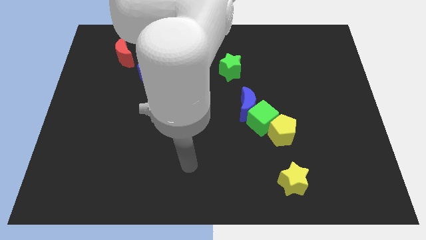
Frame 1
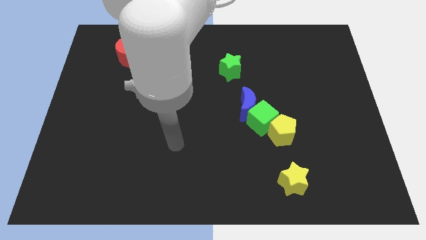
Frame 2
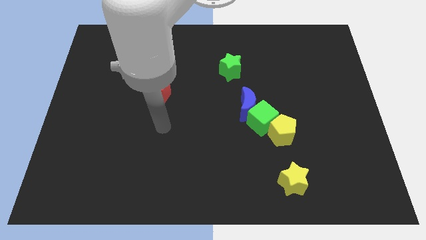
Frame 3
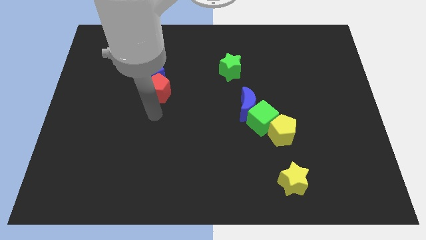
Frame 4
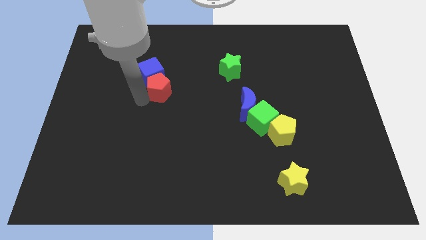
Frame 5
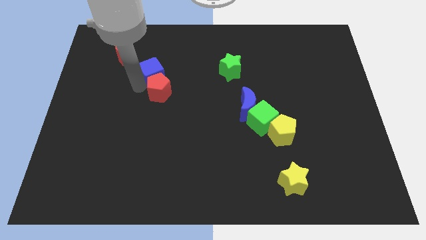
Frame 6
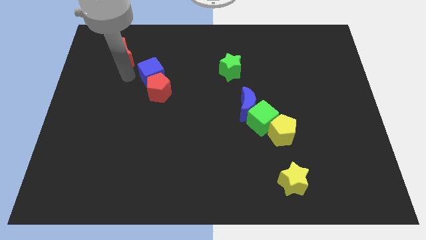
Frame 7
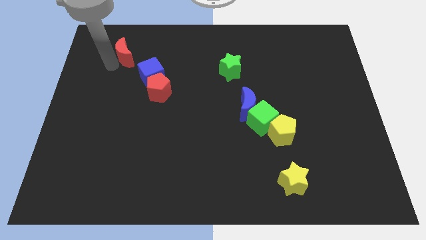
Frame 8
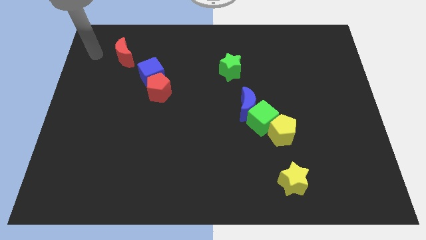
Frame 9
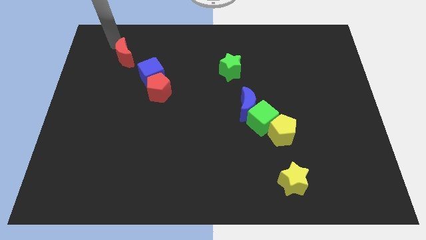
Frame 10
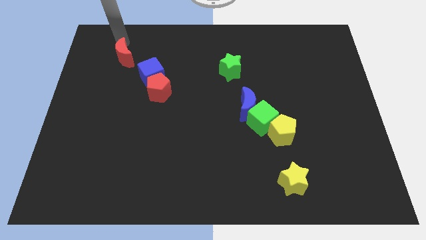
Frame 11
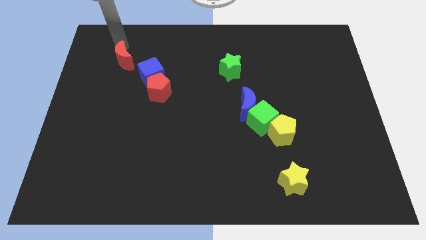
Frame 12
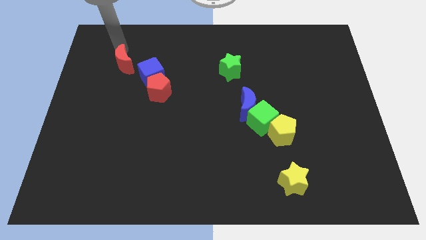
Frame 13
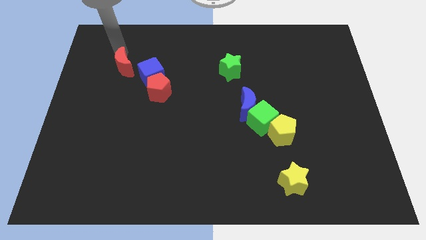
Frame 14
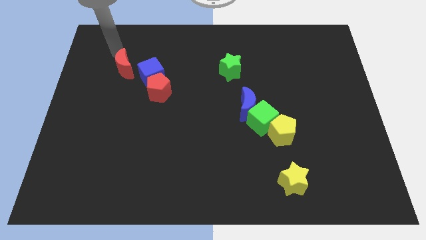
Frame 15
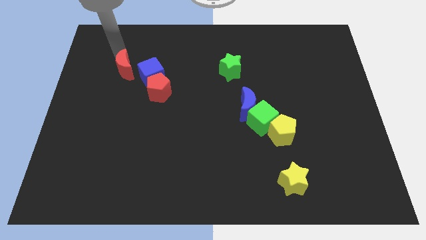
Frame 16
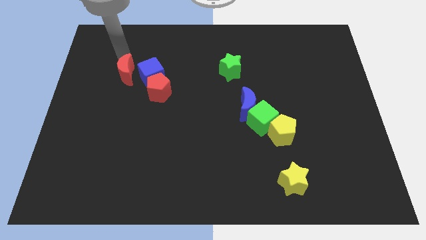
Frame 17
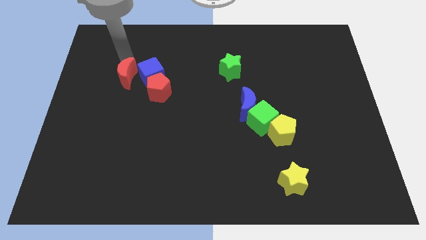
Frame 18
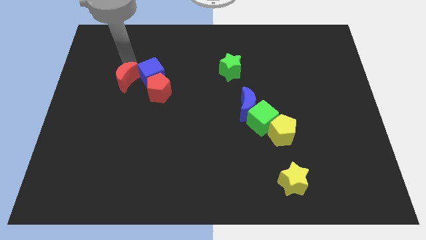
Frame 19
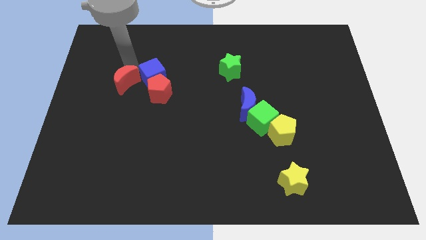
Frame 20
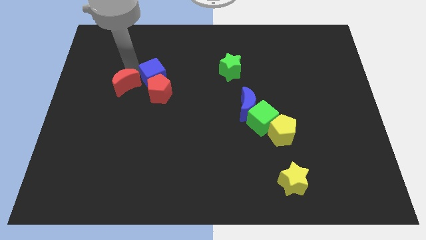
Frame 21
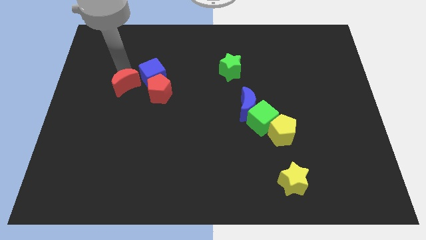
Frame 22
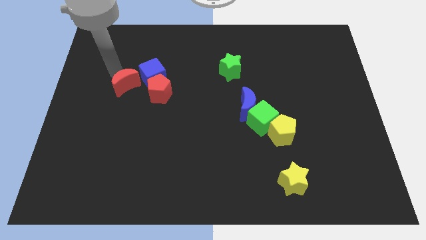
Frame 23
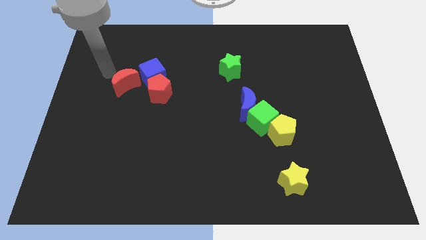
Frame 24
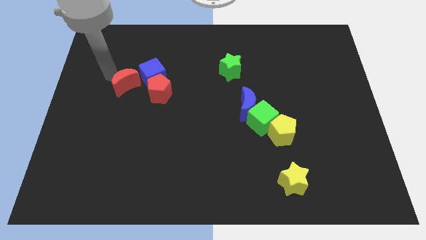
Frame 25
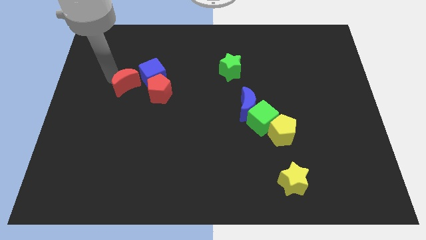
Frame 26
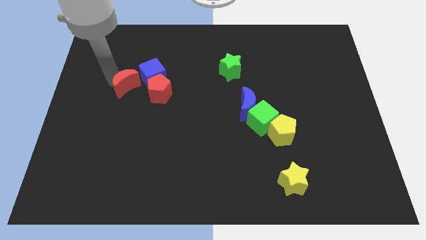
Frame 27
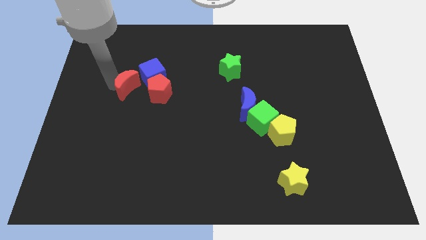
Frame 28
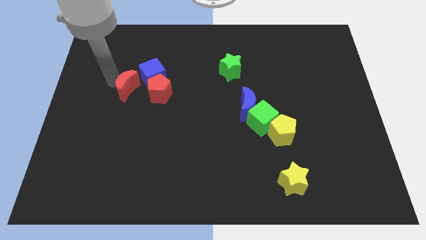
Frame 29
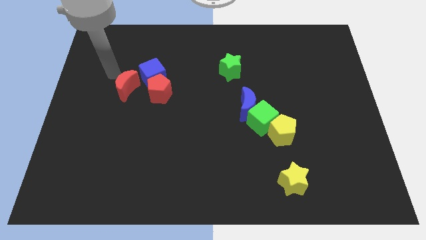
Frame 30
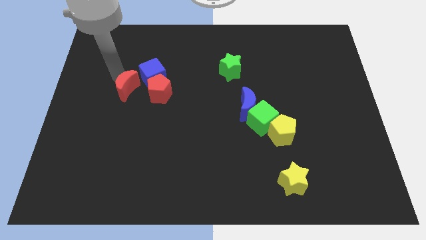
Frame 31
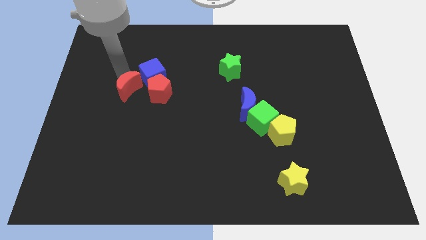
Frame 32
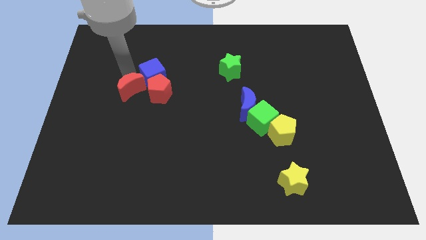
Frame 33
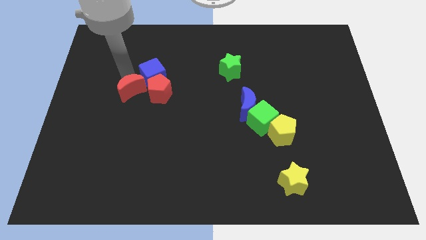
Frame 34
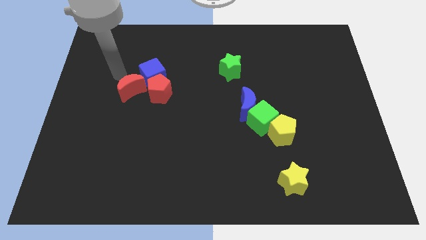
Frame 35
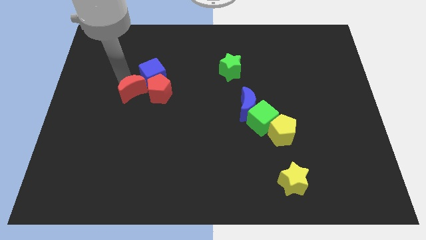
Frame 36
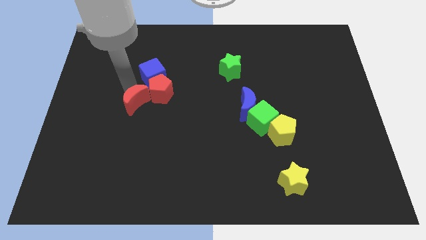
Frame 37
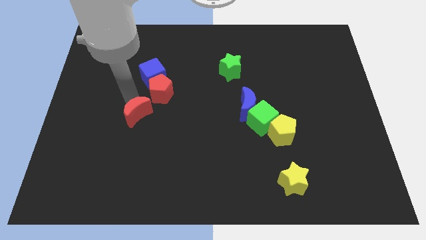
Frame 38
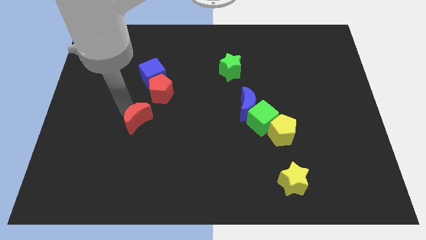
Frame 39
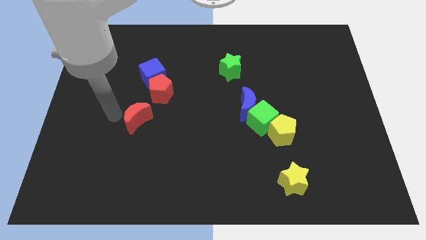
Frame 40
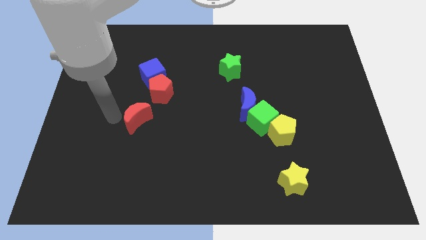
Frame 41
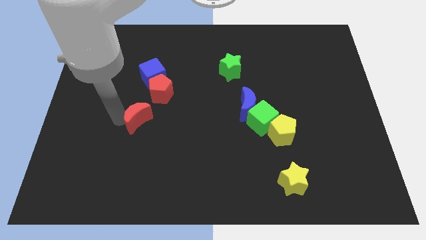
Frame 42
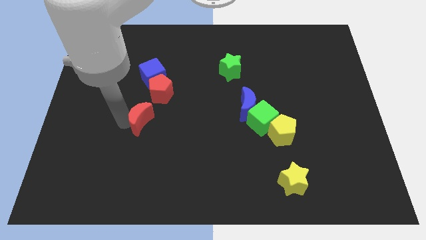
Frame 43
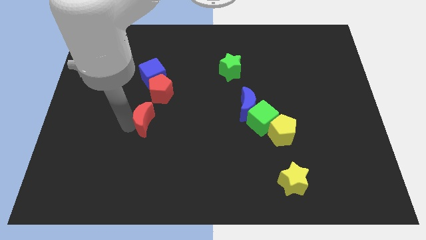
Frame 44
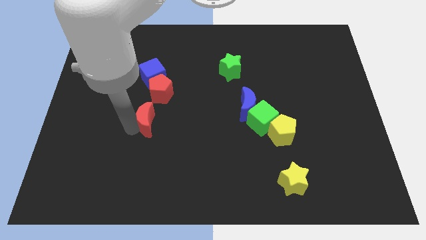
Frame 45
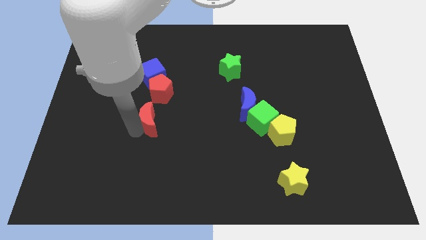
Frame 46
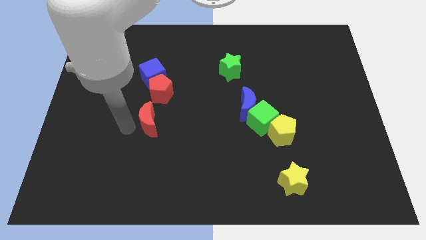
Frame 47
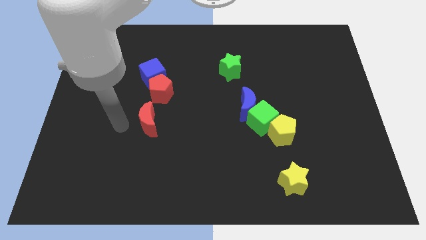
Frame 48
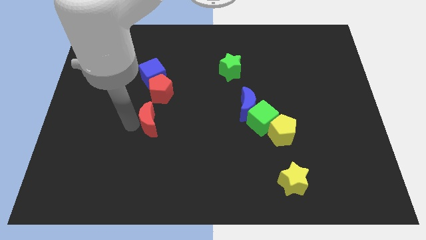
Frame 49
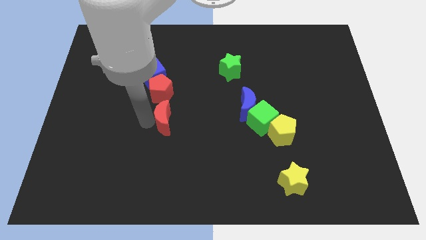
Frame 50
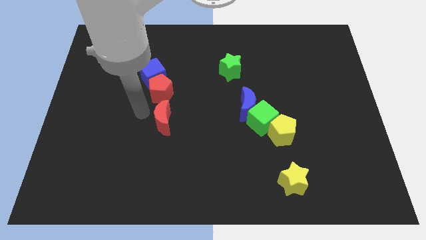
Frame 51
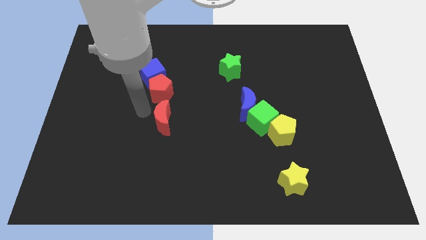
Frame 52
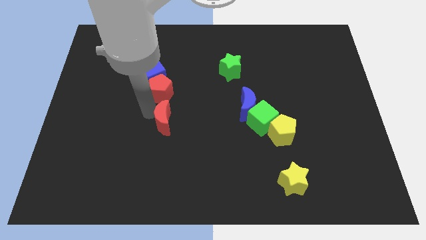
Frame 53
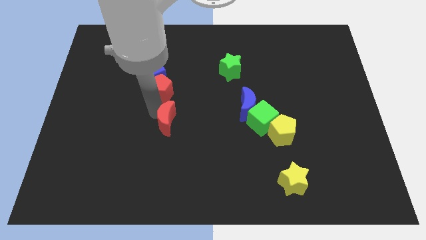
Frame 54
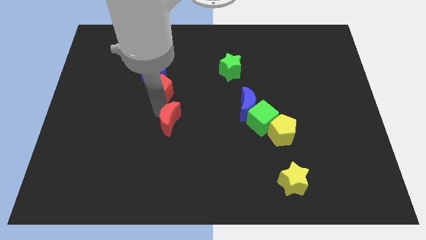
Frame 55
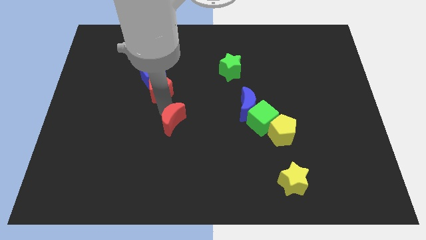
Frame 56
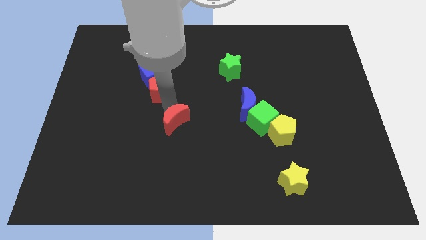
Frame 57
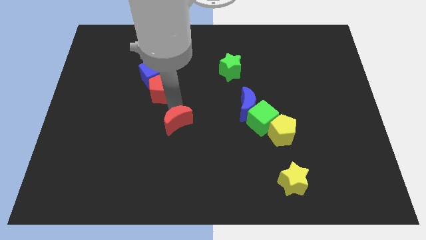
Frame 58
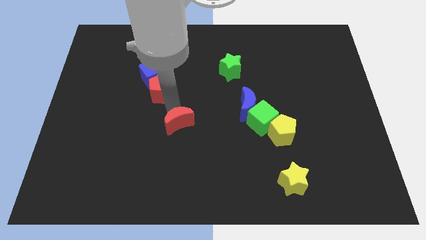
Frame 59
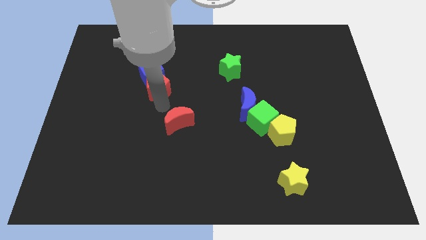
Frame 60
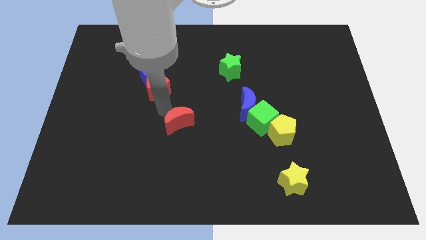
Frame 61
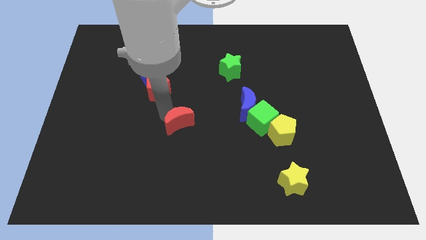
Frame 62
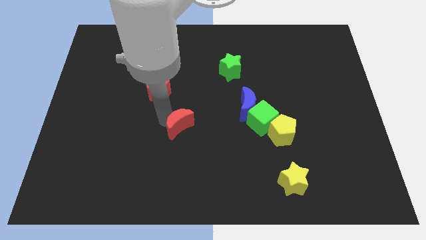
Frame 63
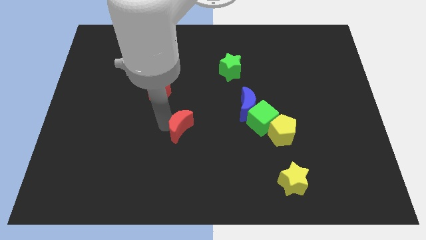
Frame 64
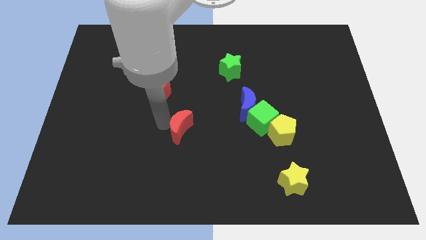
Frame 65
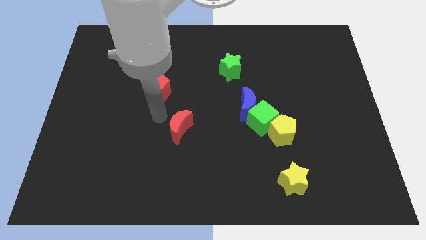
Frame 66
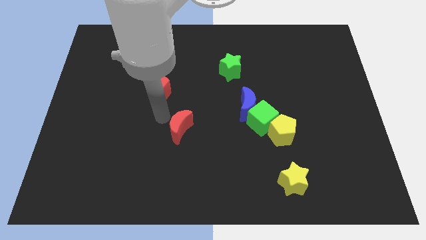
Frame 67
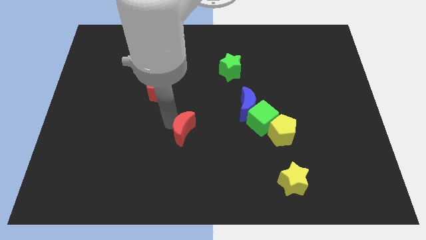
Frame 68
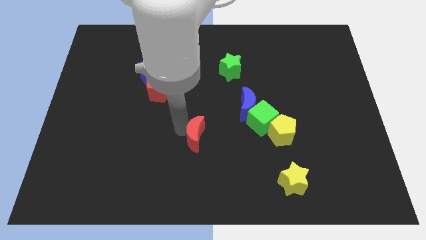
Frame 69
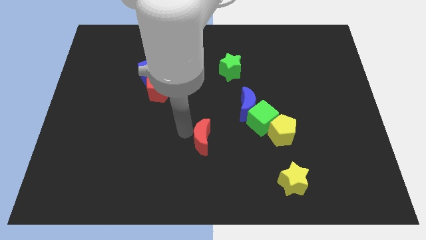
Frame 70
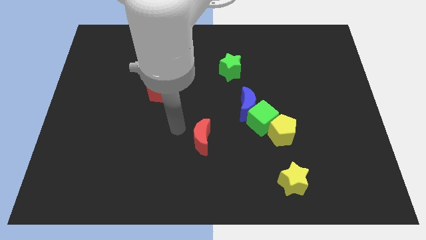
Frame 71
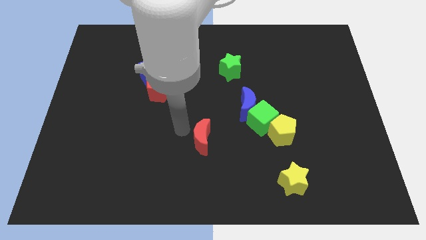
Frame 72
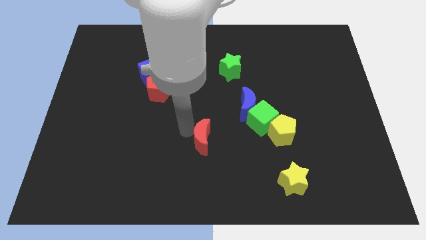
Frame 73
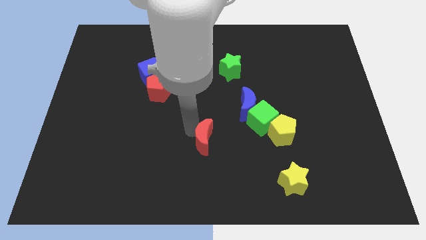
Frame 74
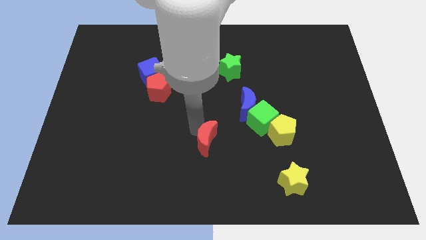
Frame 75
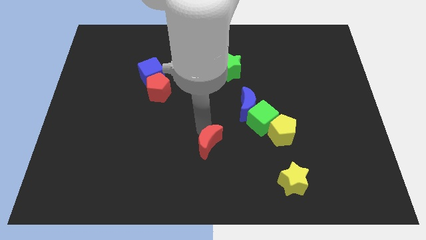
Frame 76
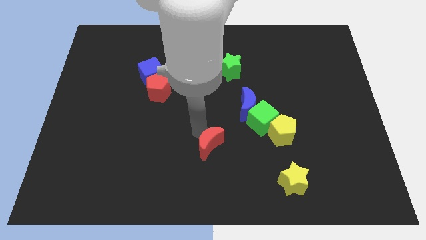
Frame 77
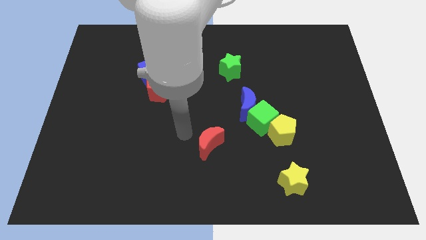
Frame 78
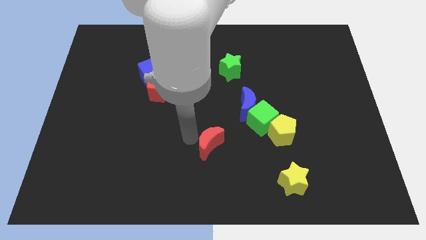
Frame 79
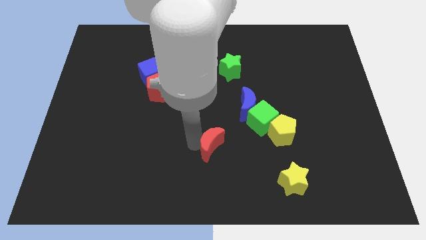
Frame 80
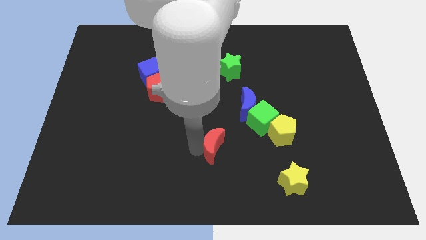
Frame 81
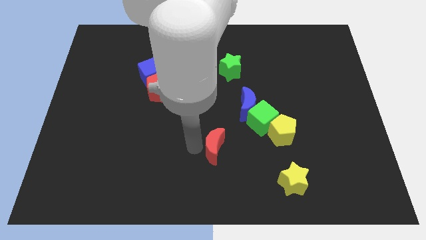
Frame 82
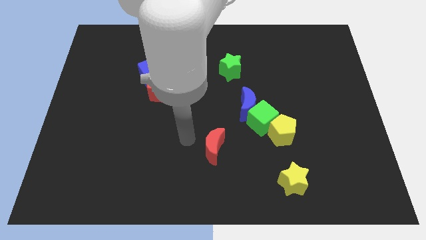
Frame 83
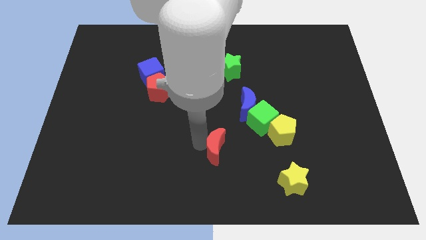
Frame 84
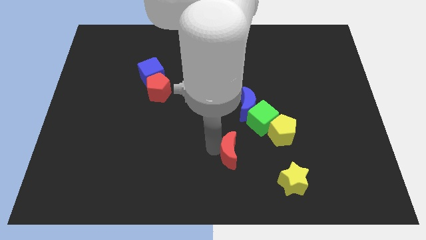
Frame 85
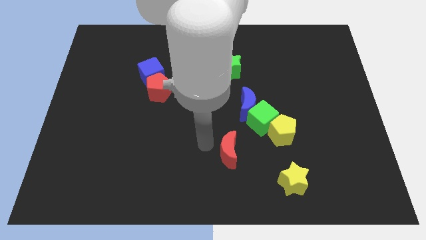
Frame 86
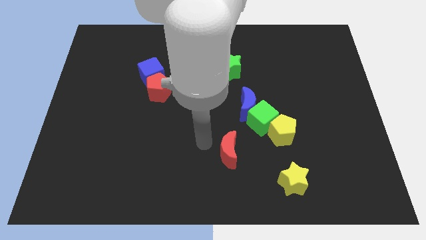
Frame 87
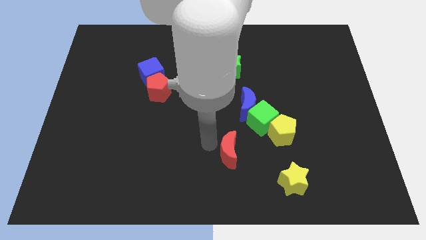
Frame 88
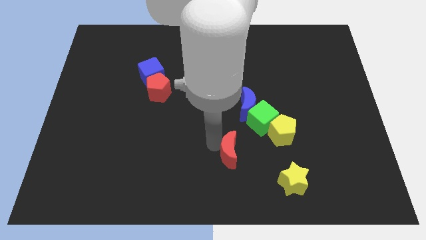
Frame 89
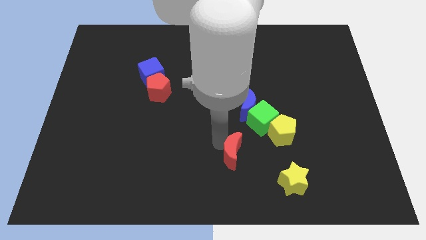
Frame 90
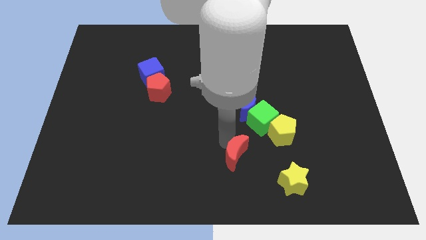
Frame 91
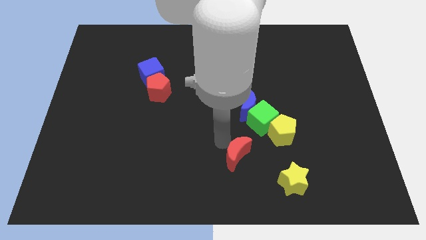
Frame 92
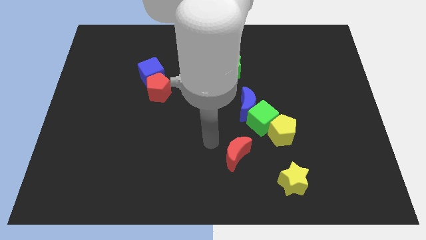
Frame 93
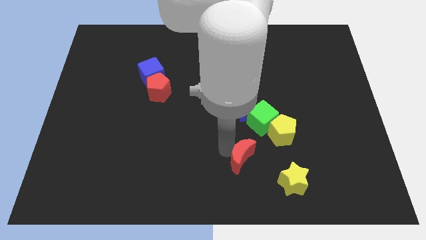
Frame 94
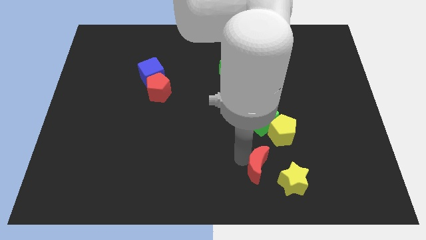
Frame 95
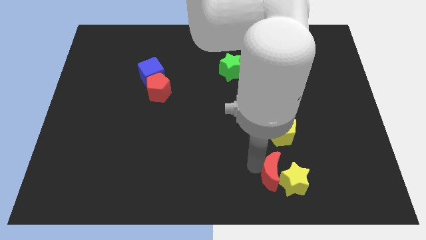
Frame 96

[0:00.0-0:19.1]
put the red moon towards the yellow star
